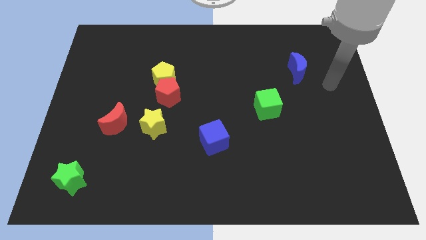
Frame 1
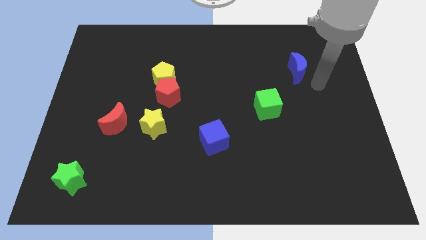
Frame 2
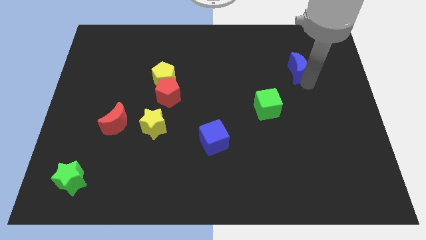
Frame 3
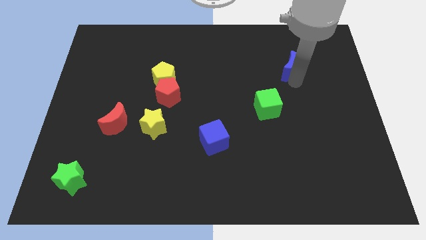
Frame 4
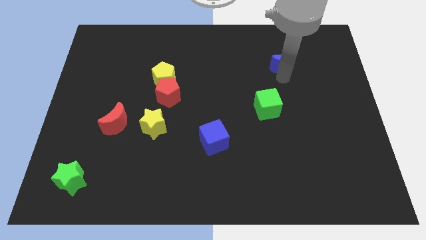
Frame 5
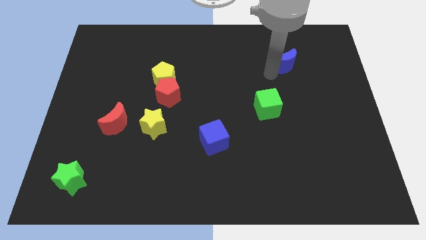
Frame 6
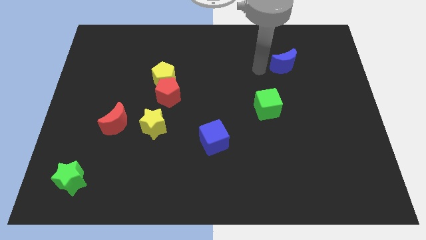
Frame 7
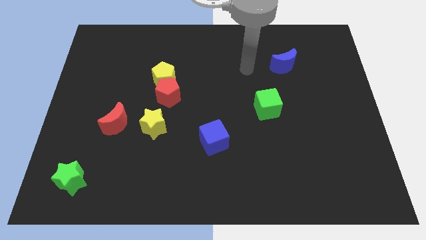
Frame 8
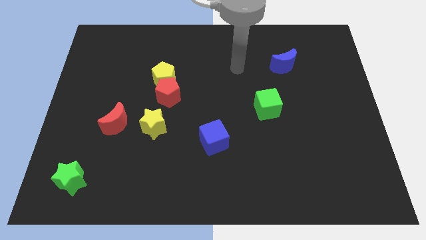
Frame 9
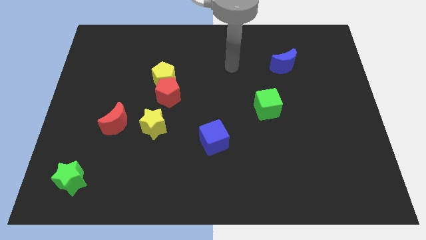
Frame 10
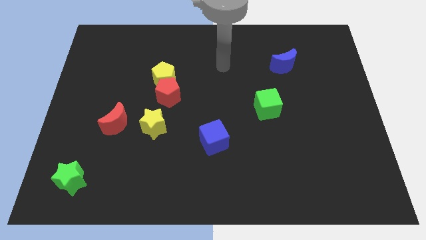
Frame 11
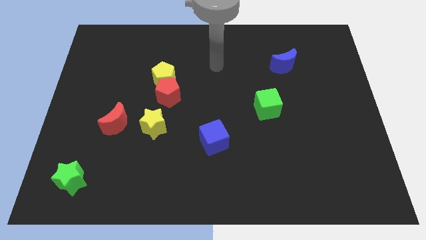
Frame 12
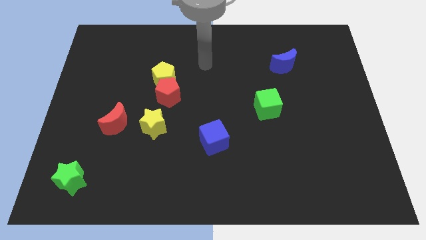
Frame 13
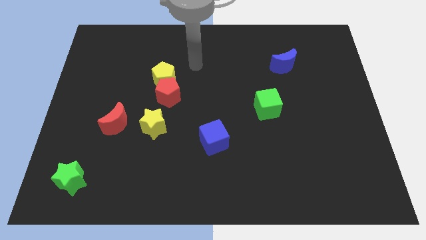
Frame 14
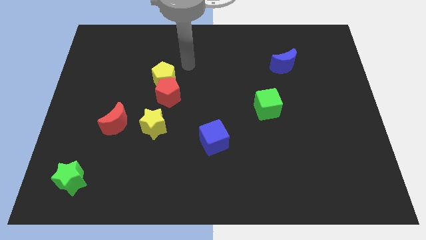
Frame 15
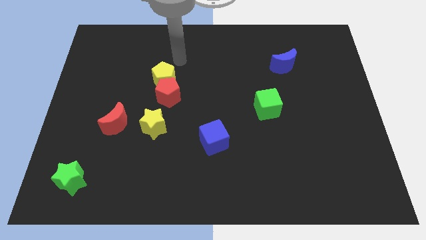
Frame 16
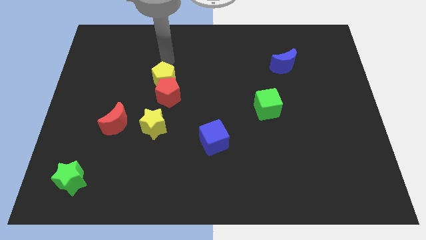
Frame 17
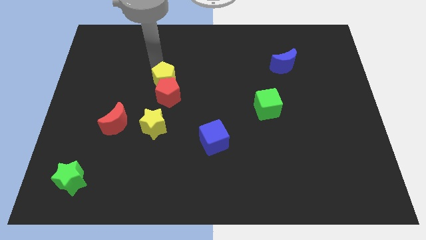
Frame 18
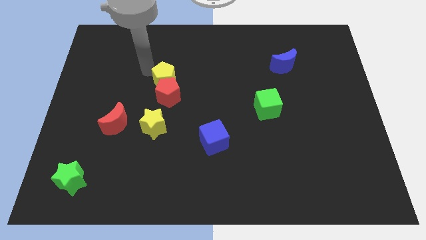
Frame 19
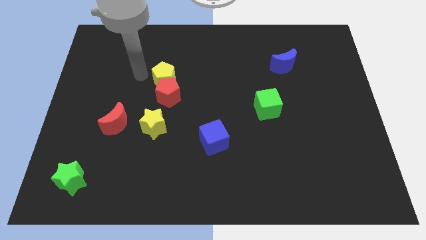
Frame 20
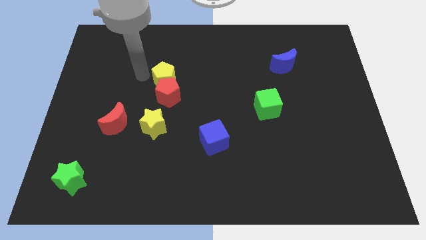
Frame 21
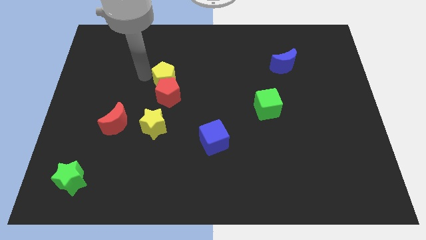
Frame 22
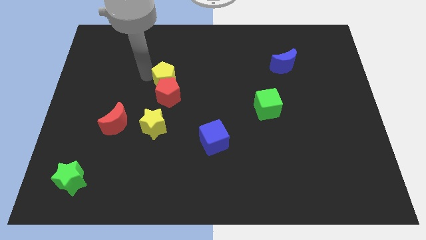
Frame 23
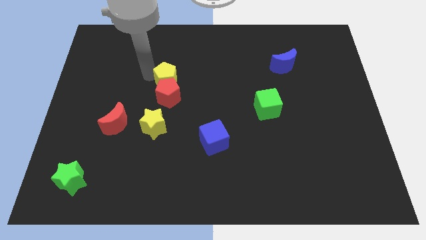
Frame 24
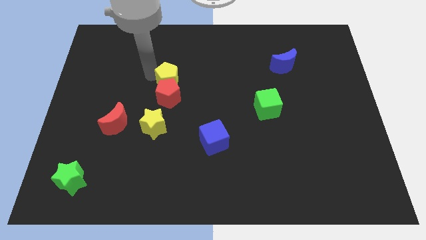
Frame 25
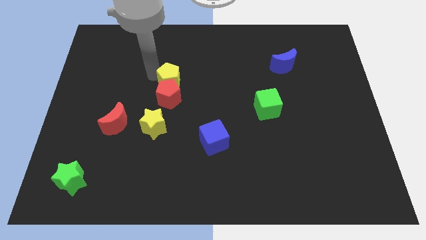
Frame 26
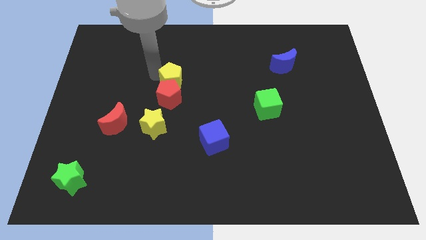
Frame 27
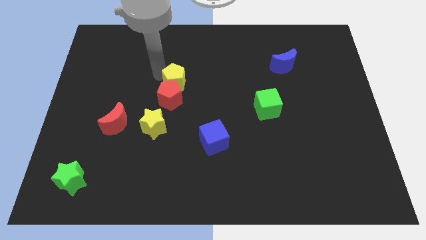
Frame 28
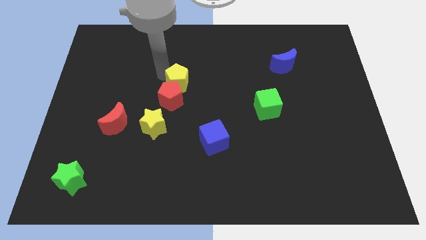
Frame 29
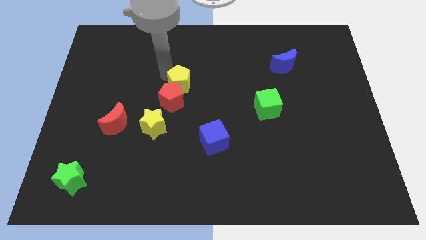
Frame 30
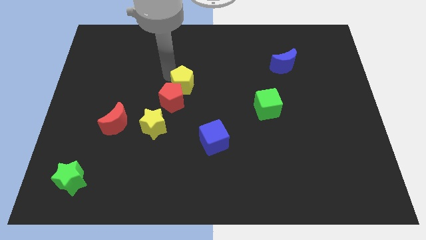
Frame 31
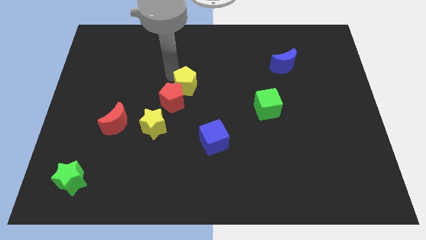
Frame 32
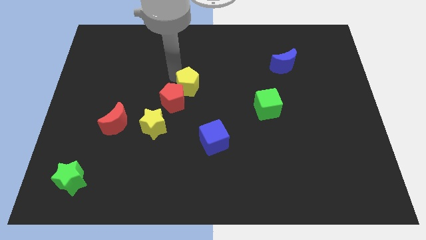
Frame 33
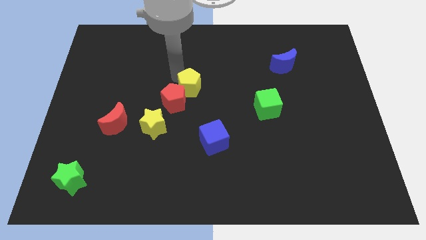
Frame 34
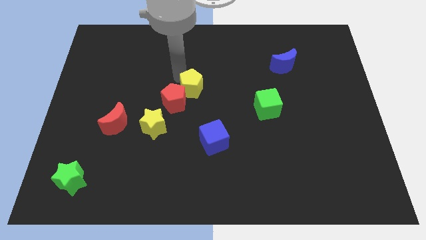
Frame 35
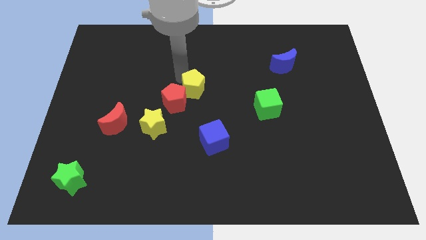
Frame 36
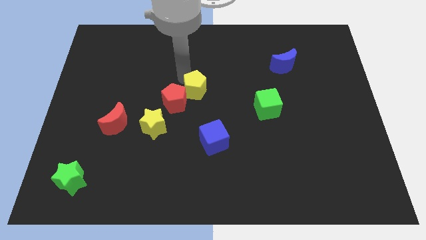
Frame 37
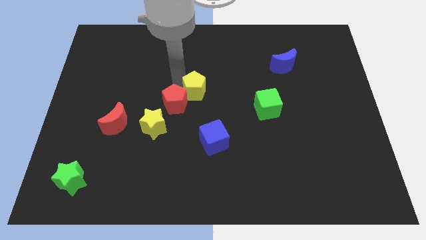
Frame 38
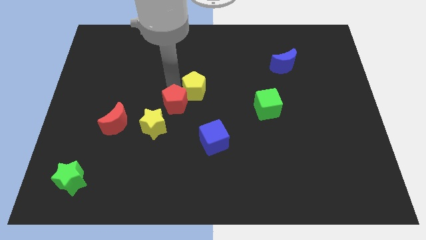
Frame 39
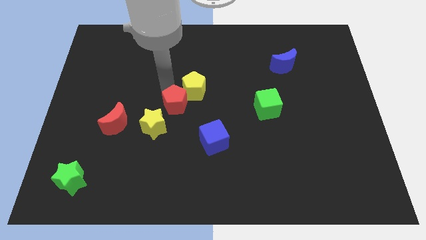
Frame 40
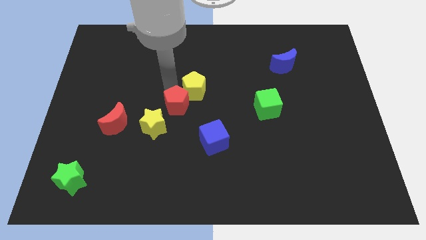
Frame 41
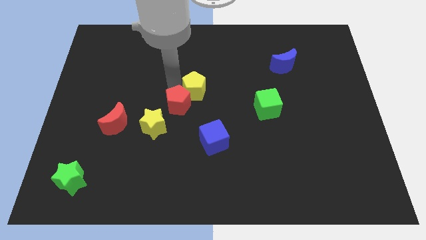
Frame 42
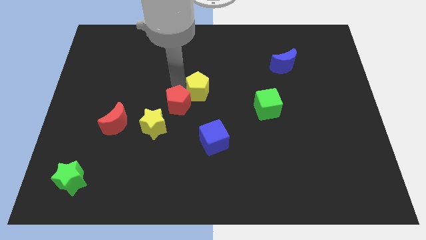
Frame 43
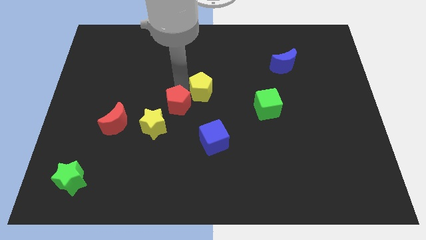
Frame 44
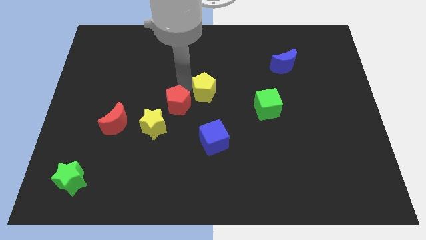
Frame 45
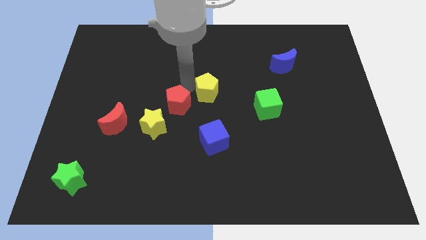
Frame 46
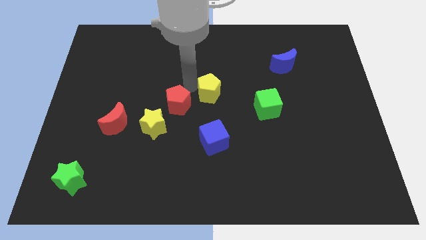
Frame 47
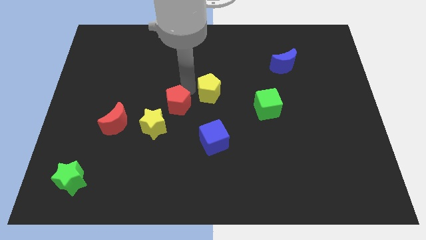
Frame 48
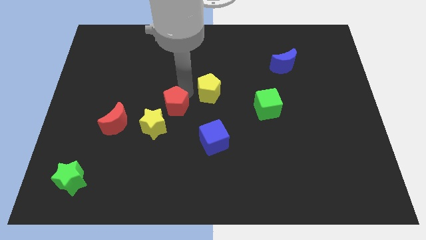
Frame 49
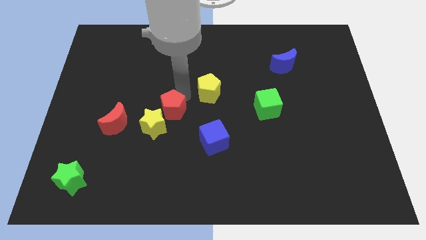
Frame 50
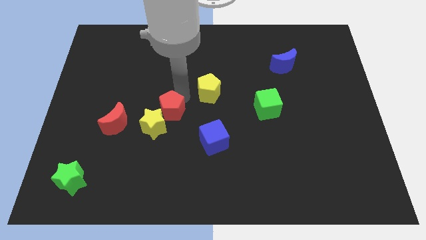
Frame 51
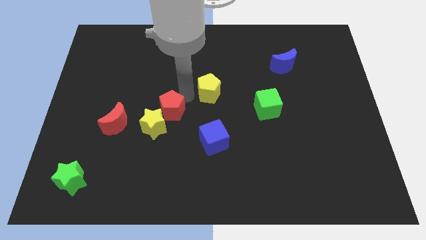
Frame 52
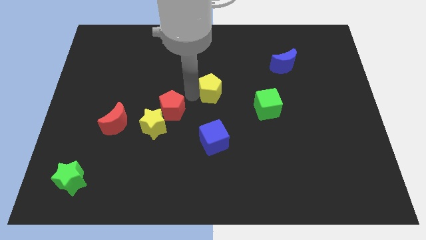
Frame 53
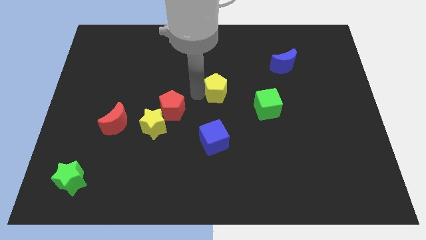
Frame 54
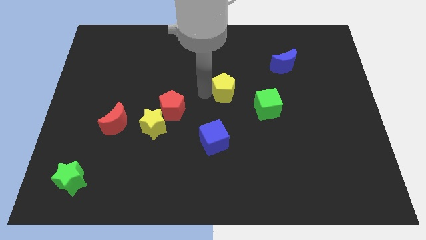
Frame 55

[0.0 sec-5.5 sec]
move the yellow pentagon to the top left side of the green cube

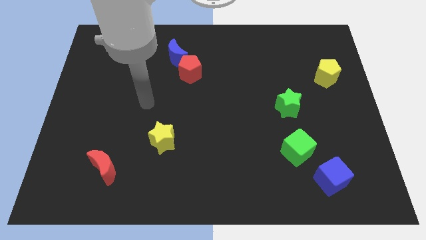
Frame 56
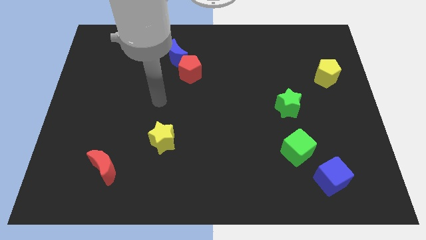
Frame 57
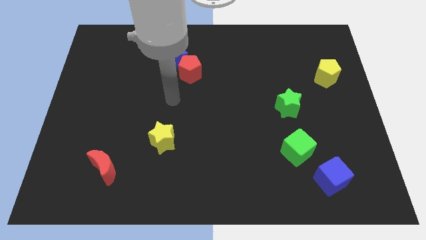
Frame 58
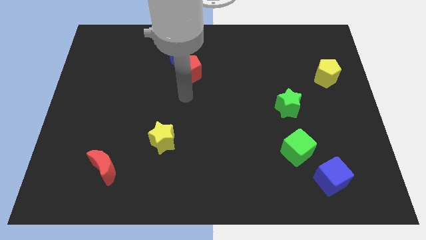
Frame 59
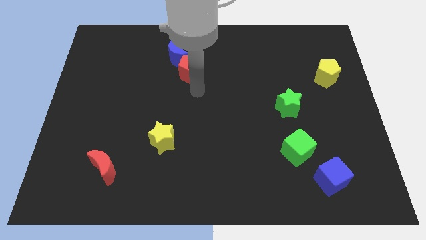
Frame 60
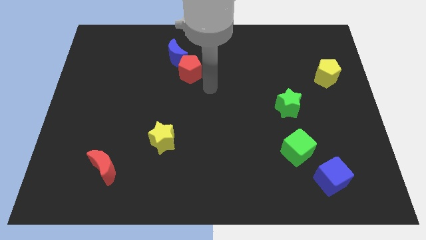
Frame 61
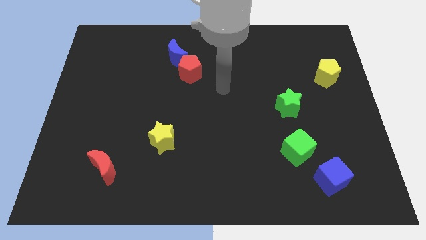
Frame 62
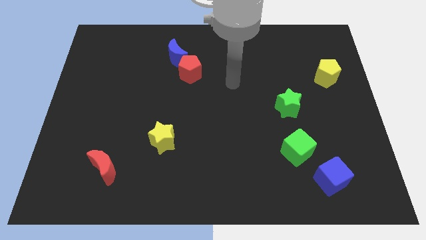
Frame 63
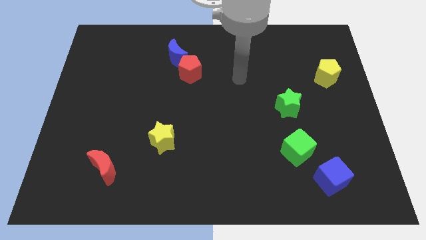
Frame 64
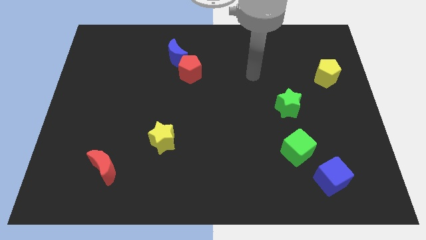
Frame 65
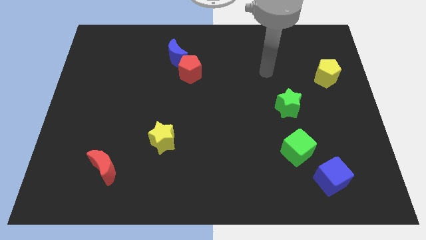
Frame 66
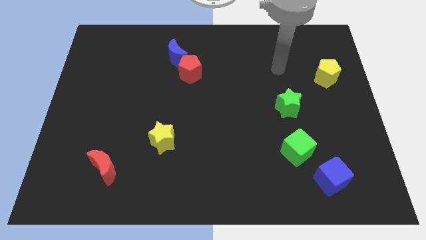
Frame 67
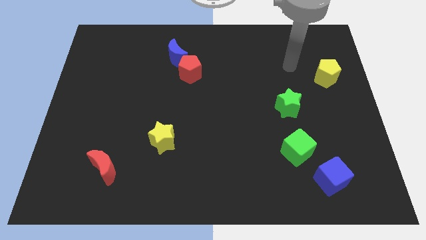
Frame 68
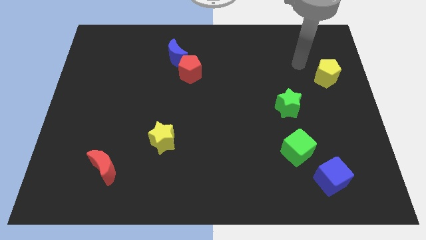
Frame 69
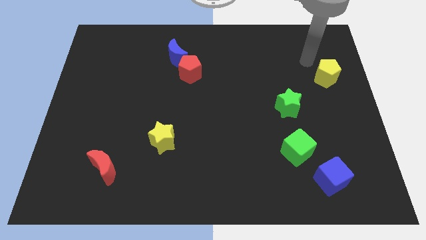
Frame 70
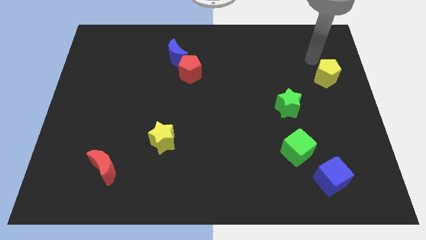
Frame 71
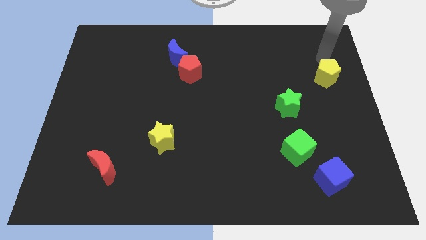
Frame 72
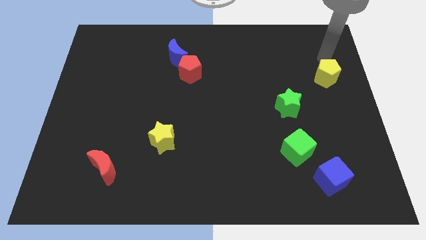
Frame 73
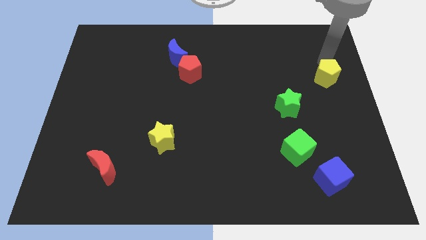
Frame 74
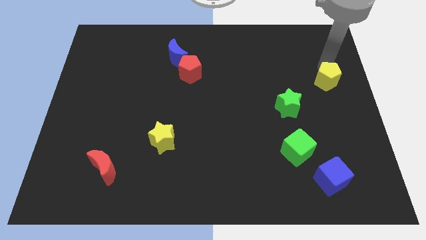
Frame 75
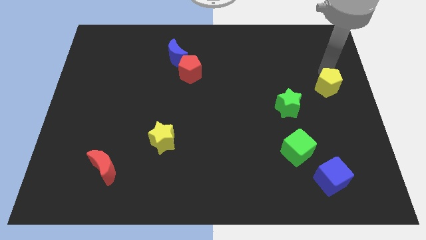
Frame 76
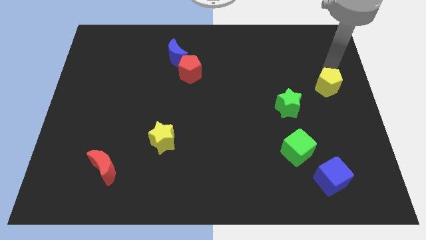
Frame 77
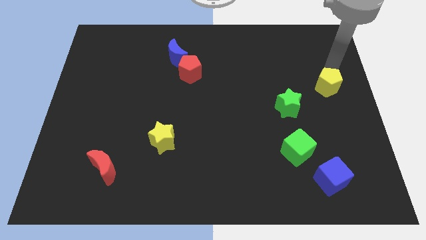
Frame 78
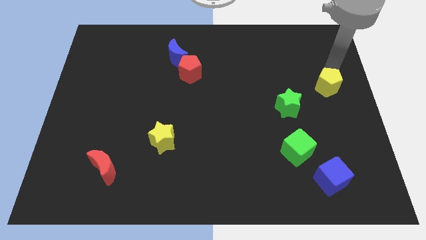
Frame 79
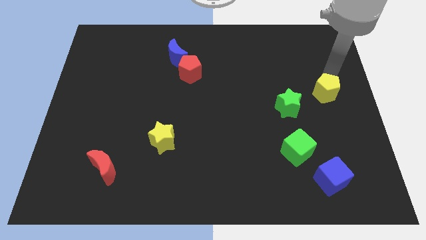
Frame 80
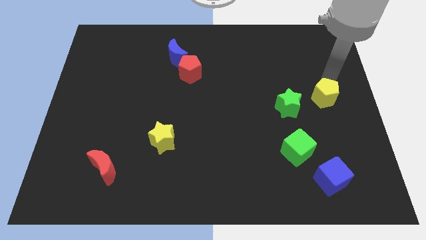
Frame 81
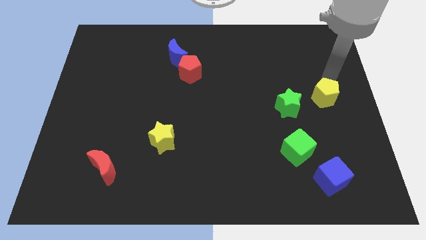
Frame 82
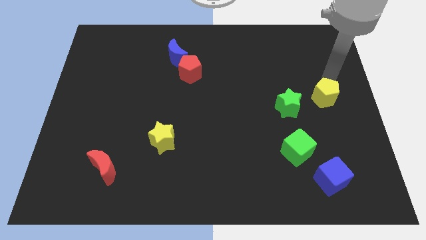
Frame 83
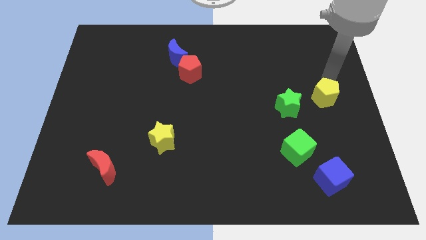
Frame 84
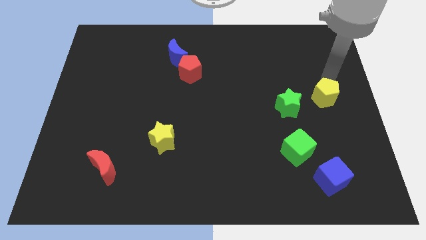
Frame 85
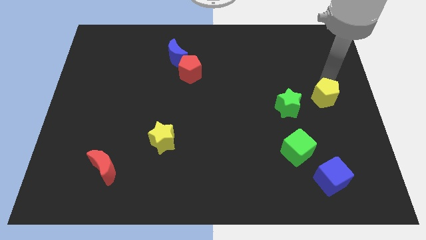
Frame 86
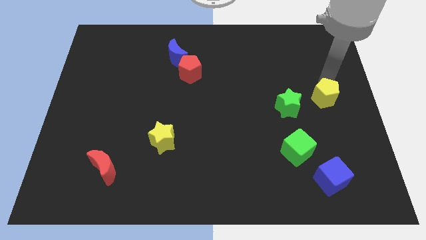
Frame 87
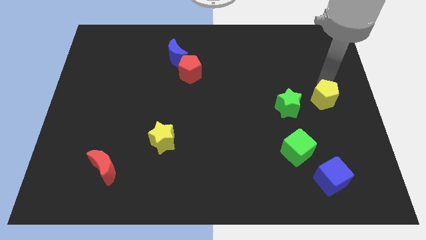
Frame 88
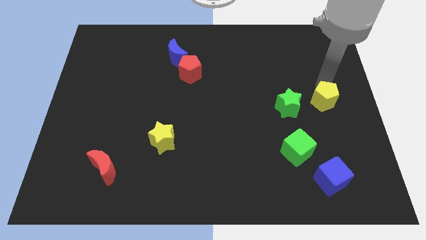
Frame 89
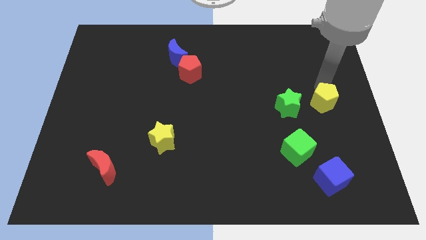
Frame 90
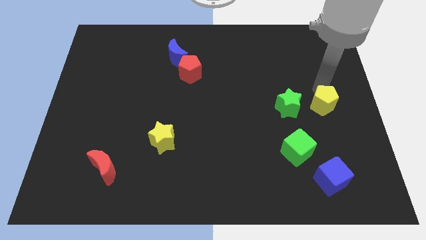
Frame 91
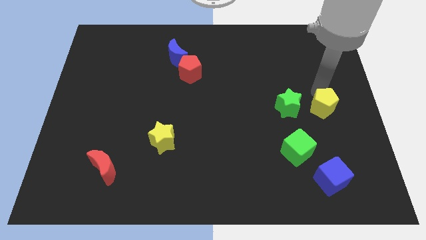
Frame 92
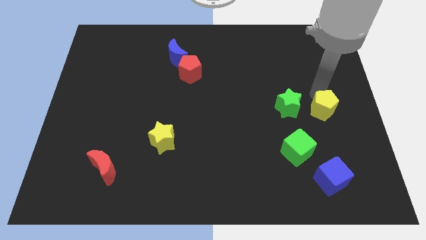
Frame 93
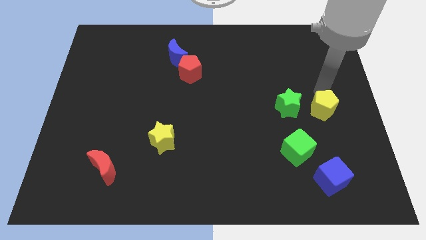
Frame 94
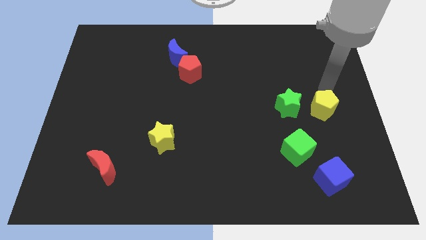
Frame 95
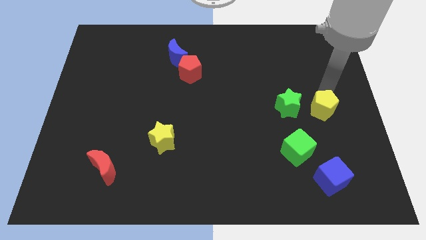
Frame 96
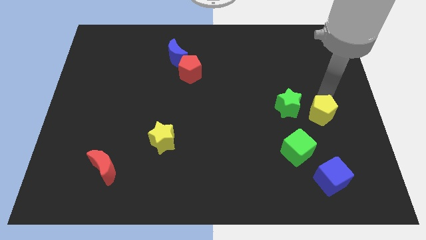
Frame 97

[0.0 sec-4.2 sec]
move the yellow pentagon to the top right of the green cube
